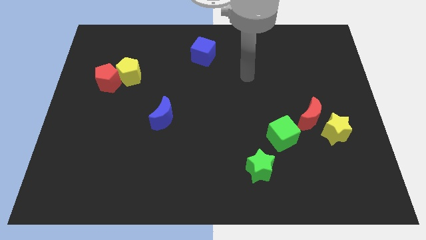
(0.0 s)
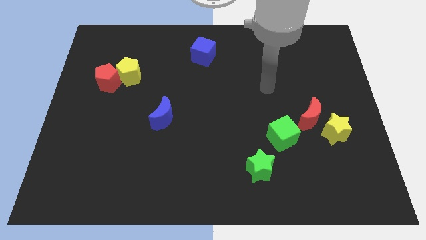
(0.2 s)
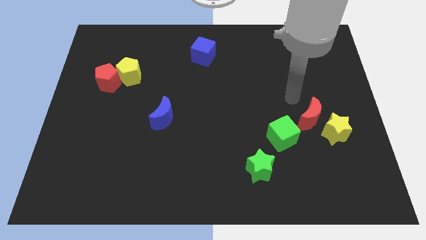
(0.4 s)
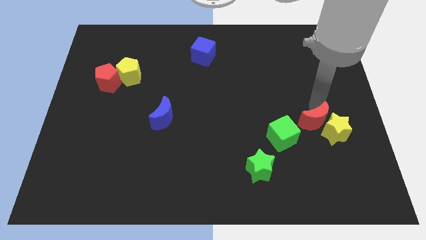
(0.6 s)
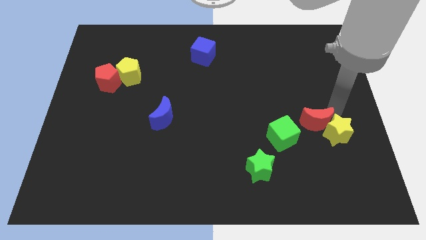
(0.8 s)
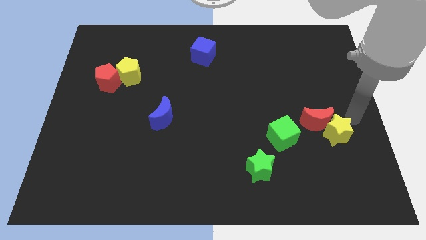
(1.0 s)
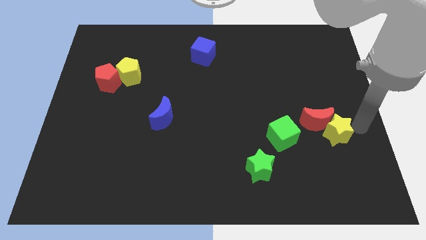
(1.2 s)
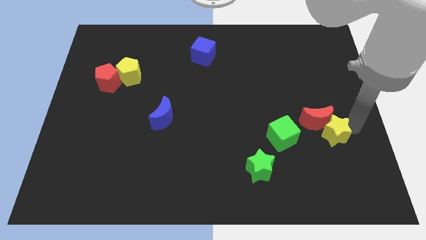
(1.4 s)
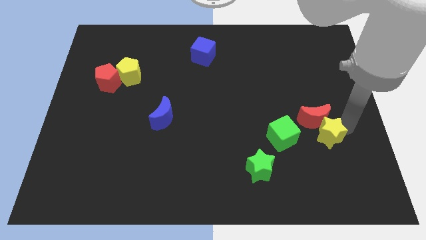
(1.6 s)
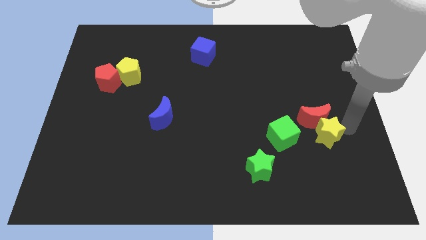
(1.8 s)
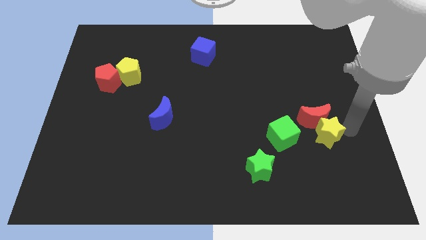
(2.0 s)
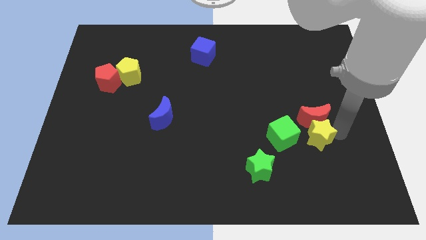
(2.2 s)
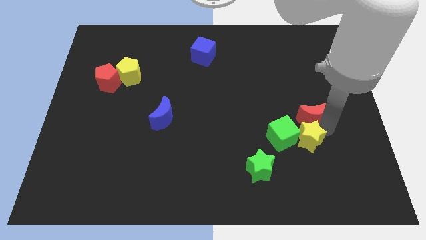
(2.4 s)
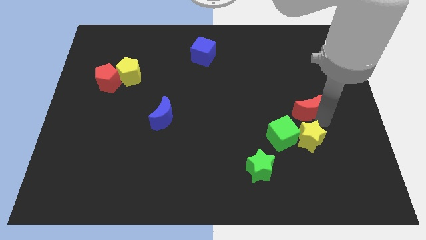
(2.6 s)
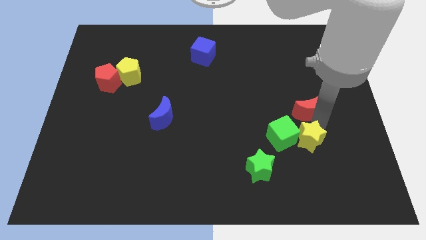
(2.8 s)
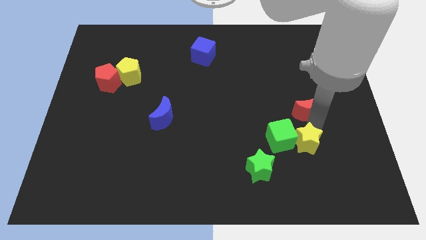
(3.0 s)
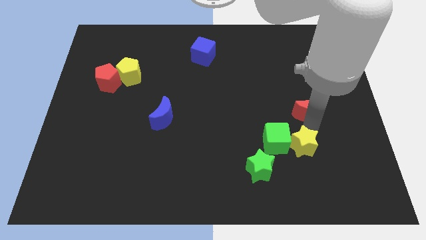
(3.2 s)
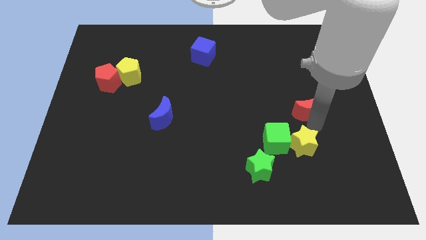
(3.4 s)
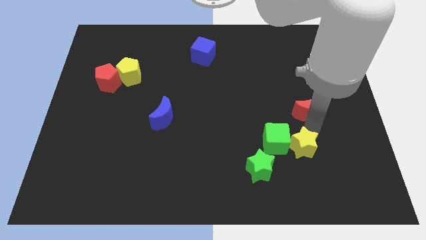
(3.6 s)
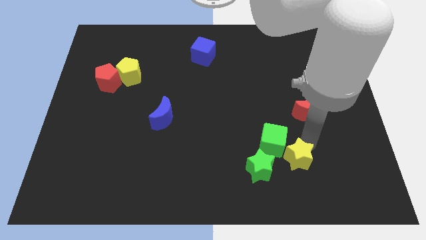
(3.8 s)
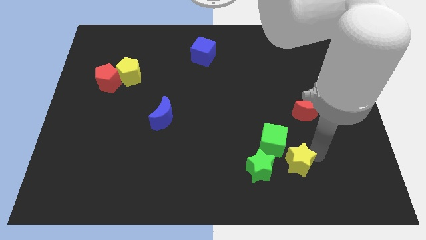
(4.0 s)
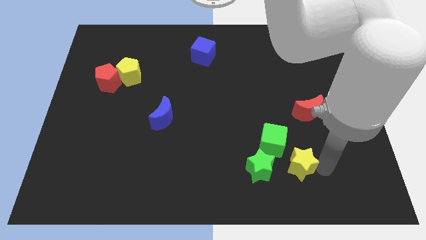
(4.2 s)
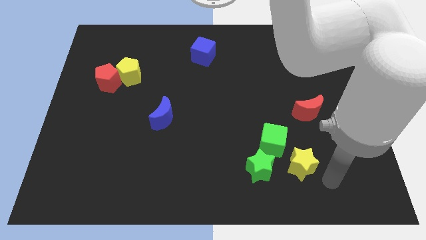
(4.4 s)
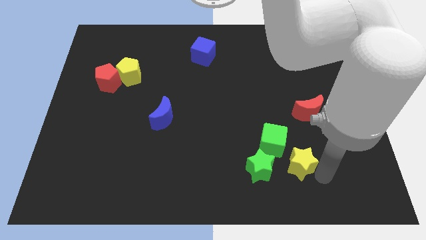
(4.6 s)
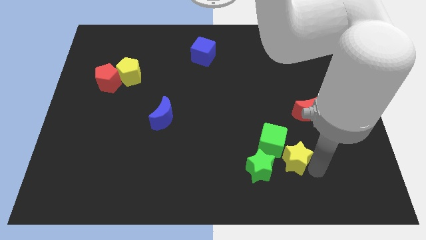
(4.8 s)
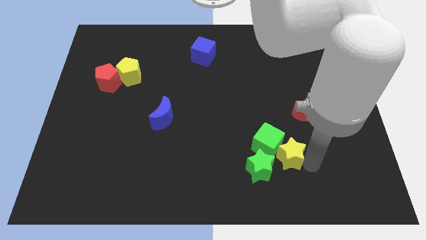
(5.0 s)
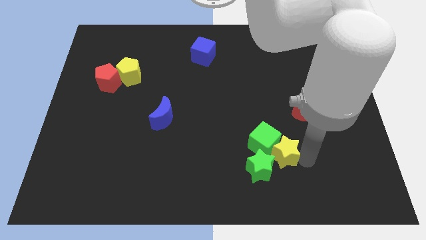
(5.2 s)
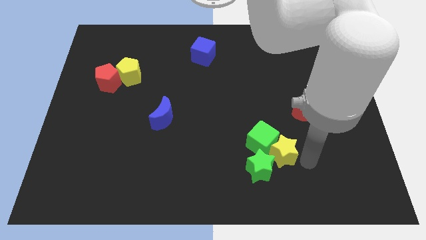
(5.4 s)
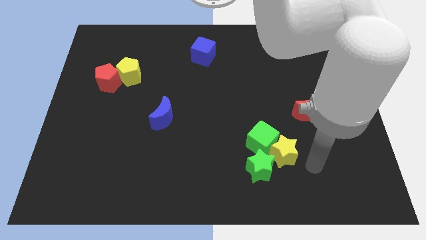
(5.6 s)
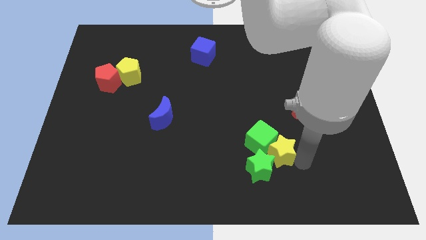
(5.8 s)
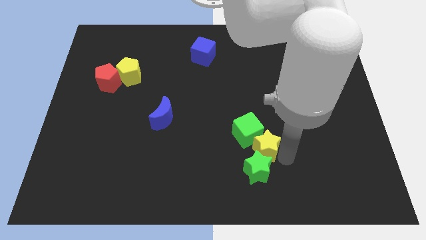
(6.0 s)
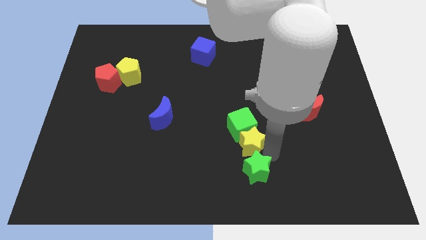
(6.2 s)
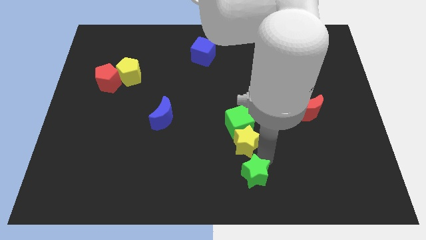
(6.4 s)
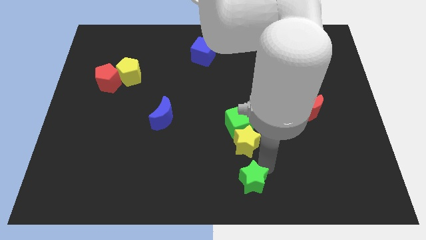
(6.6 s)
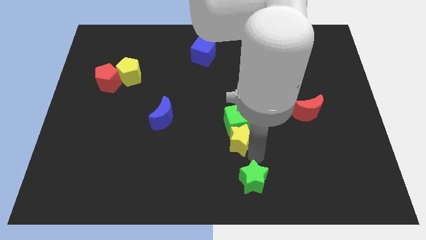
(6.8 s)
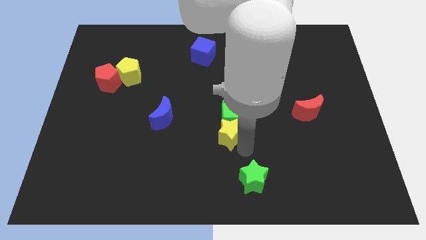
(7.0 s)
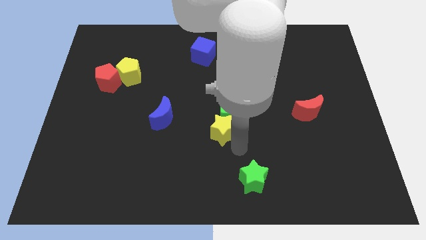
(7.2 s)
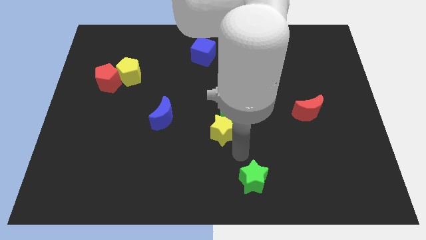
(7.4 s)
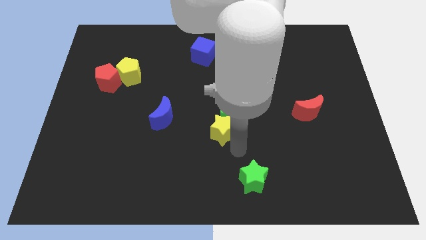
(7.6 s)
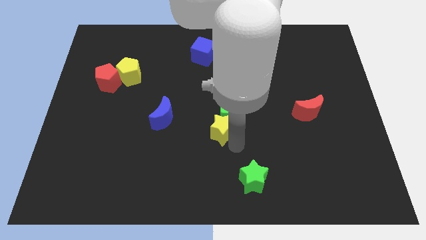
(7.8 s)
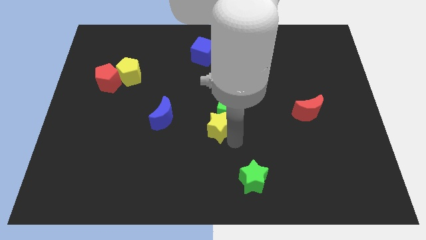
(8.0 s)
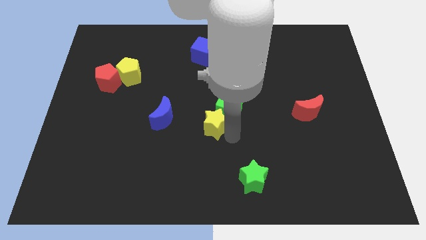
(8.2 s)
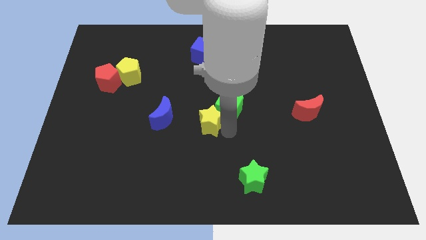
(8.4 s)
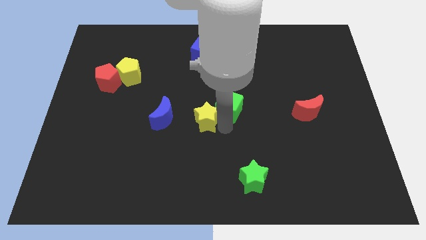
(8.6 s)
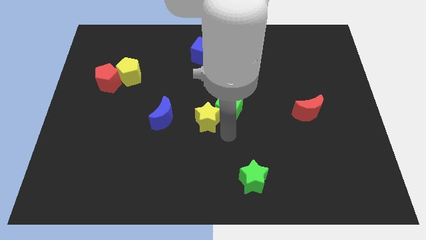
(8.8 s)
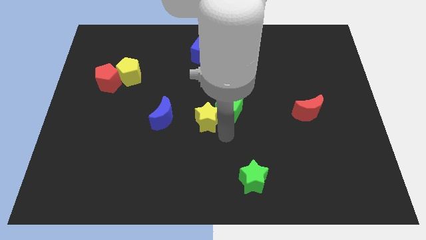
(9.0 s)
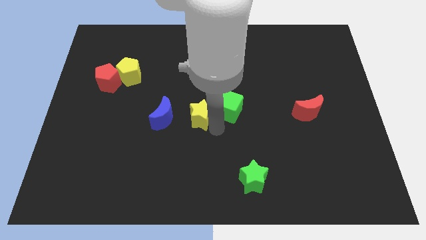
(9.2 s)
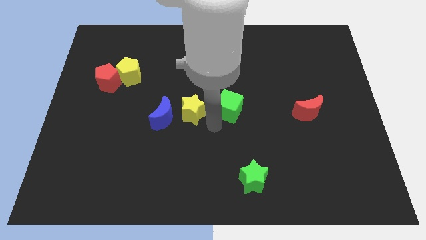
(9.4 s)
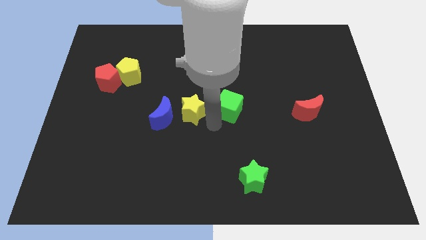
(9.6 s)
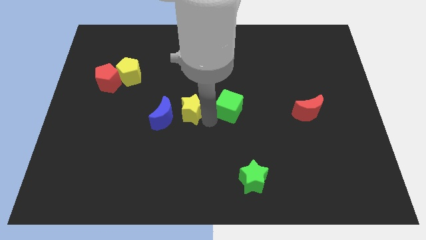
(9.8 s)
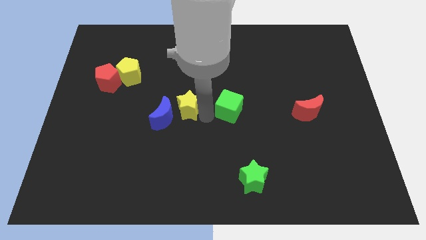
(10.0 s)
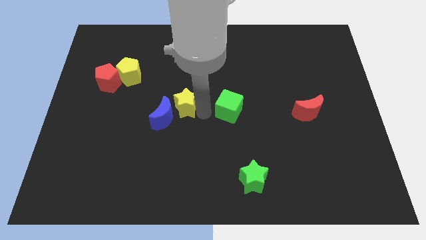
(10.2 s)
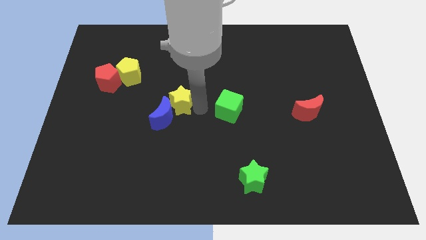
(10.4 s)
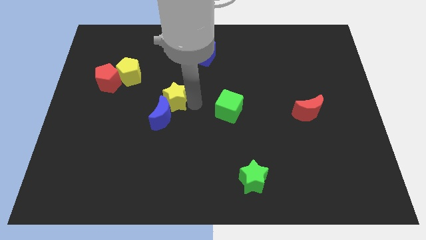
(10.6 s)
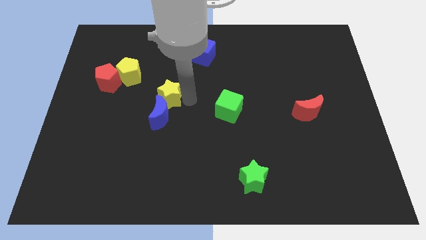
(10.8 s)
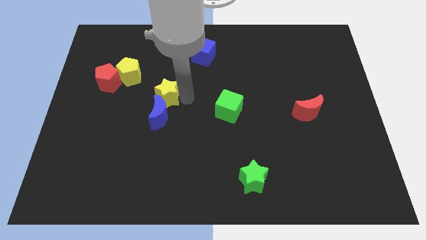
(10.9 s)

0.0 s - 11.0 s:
put the yellow star to the top left side of the blue moon

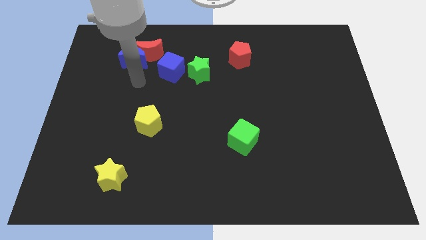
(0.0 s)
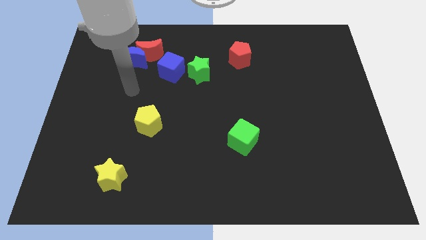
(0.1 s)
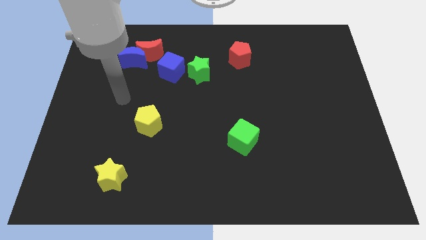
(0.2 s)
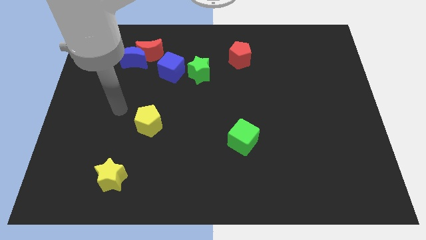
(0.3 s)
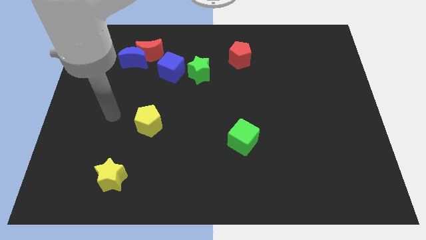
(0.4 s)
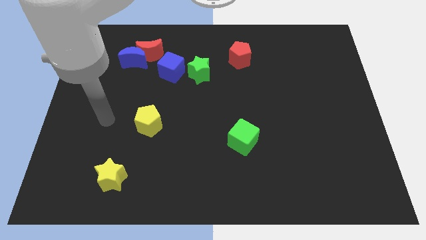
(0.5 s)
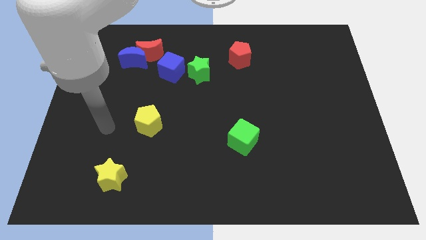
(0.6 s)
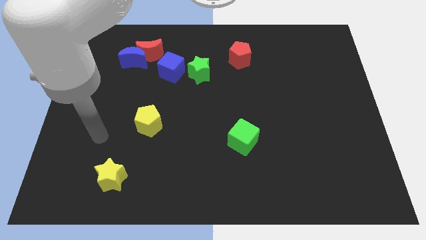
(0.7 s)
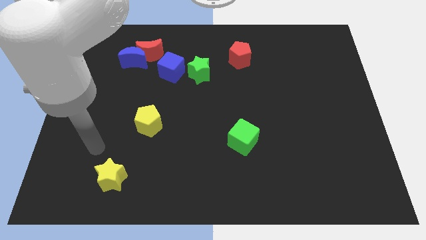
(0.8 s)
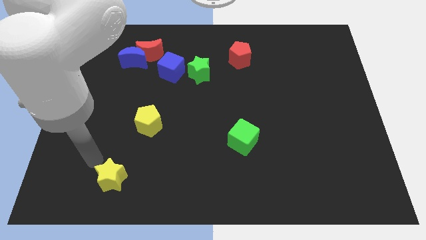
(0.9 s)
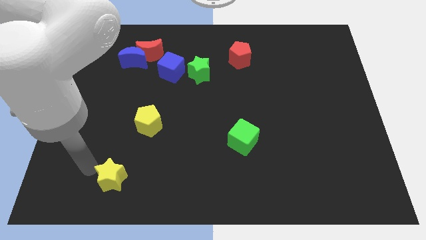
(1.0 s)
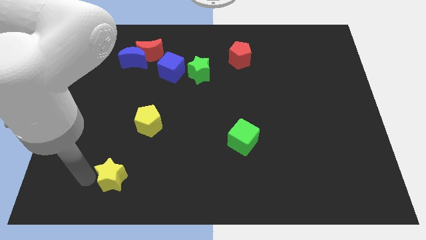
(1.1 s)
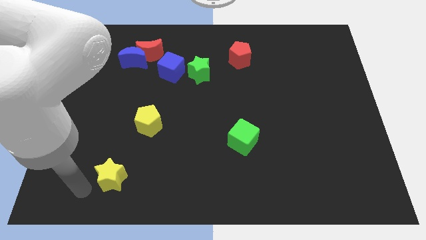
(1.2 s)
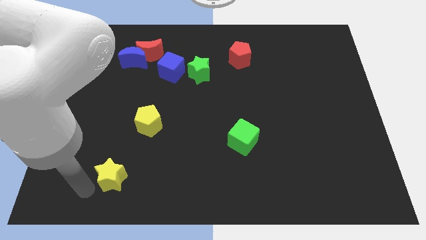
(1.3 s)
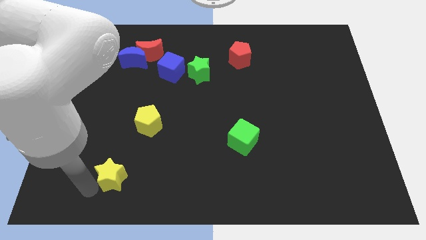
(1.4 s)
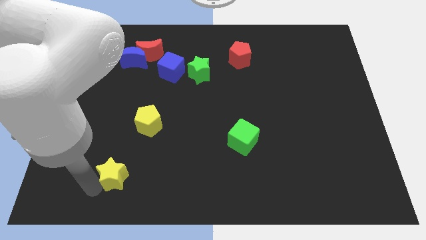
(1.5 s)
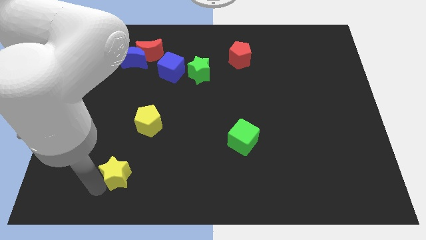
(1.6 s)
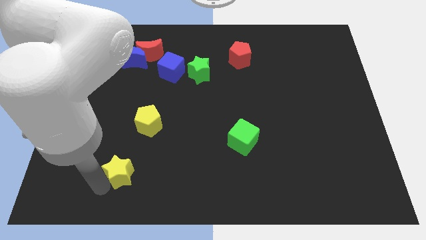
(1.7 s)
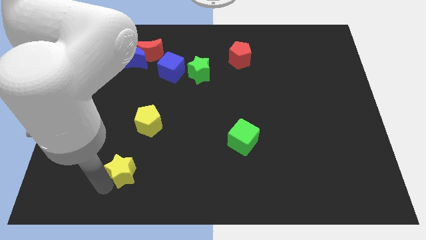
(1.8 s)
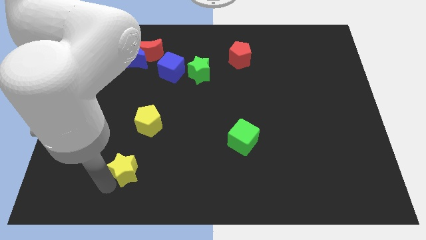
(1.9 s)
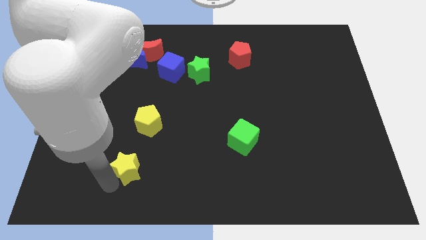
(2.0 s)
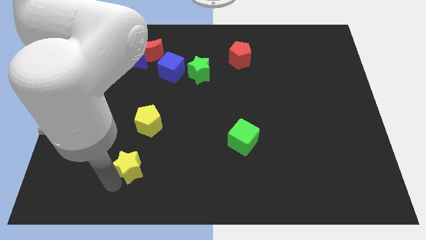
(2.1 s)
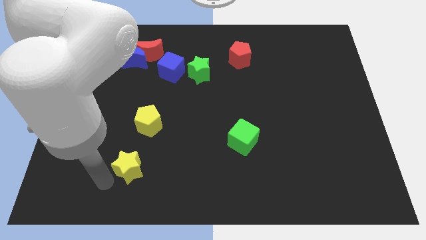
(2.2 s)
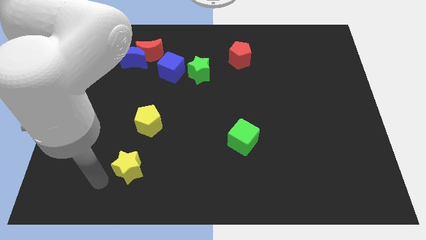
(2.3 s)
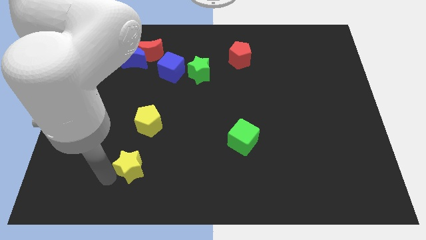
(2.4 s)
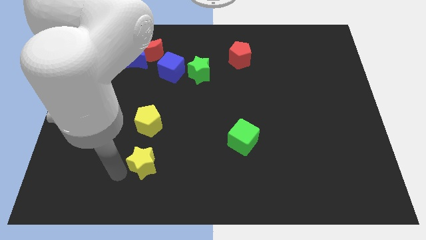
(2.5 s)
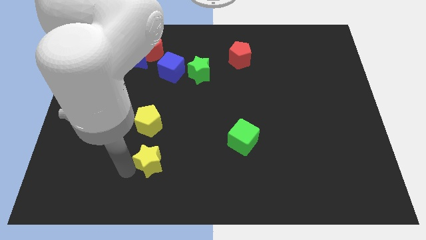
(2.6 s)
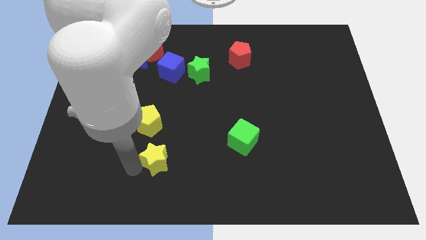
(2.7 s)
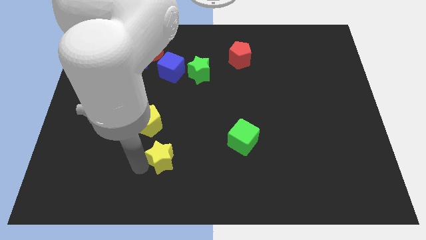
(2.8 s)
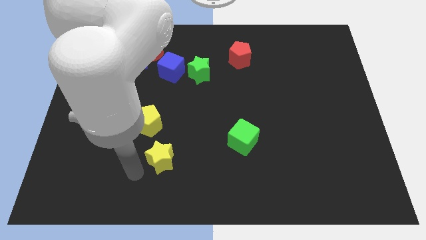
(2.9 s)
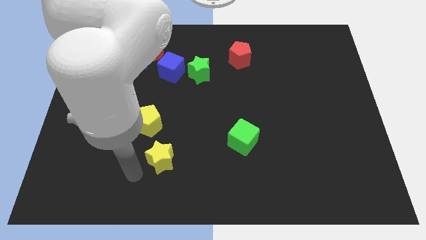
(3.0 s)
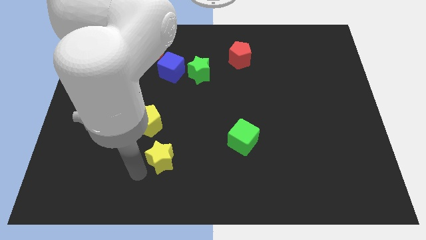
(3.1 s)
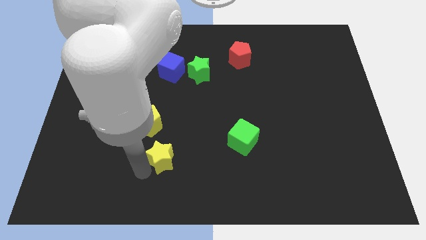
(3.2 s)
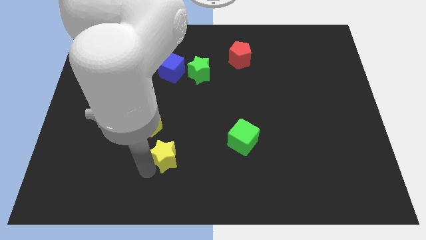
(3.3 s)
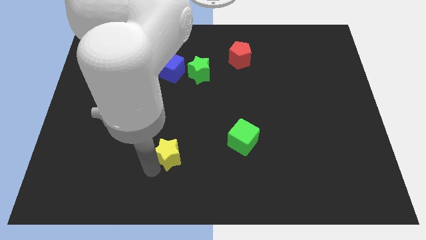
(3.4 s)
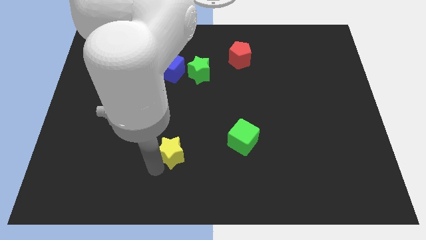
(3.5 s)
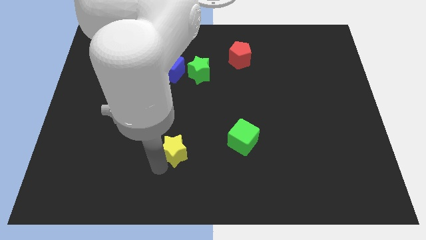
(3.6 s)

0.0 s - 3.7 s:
move the yellow star to the left side of the green cube
